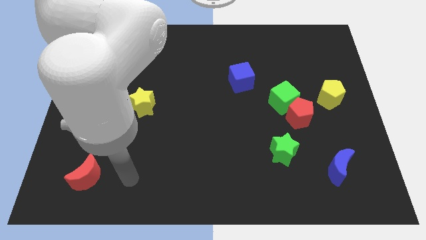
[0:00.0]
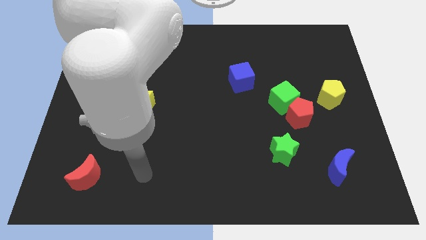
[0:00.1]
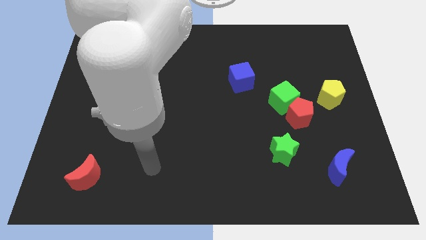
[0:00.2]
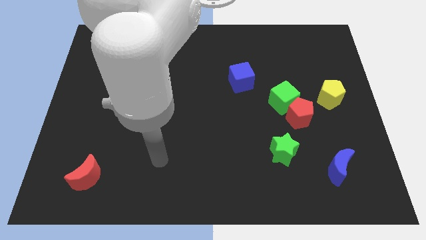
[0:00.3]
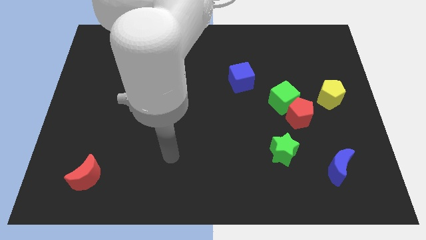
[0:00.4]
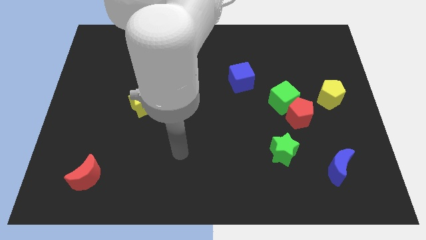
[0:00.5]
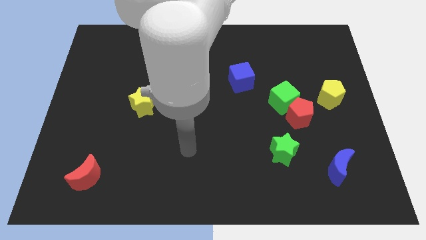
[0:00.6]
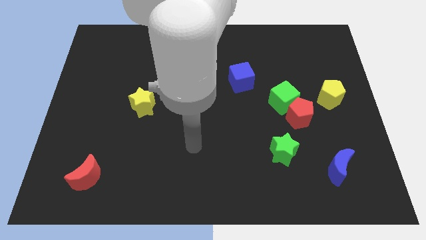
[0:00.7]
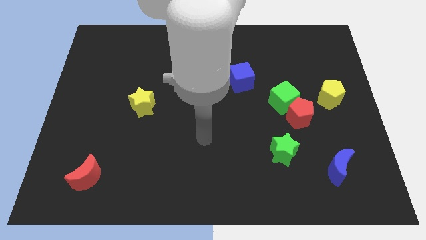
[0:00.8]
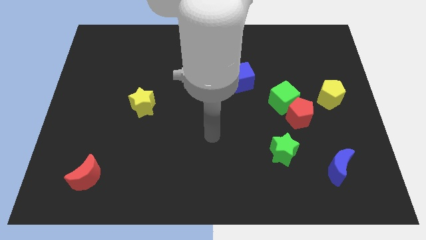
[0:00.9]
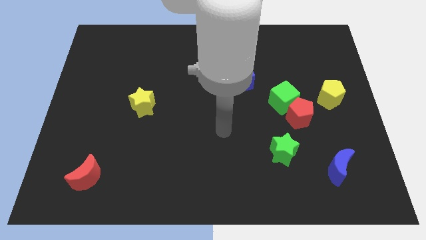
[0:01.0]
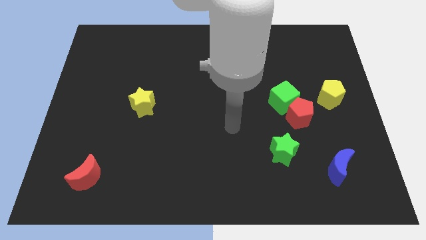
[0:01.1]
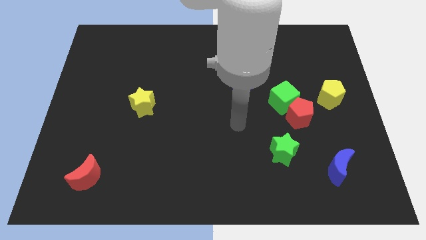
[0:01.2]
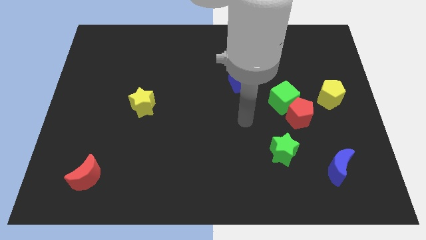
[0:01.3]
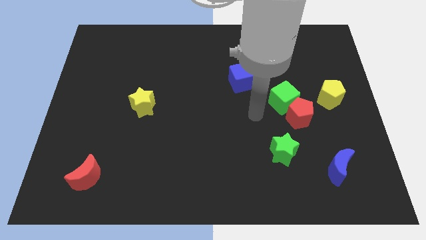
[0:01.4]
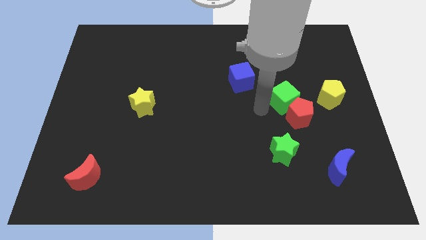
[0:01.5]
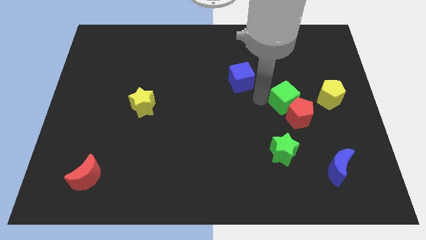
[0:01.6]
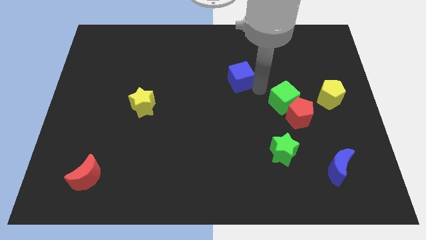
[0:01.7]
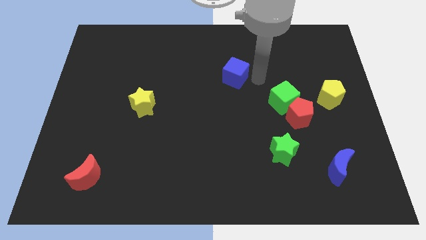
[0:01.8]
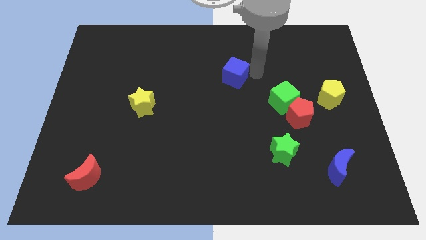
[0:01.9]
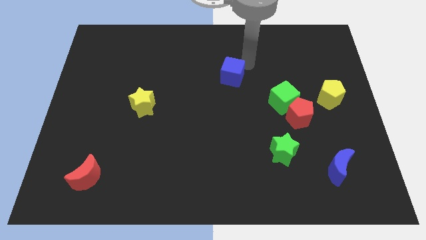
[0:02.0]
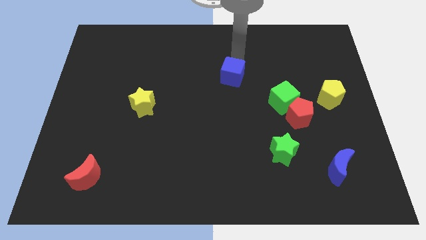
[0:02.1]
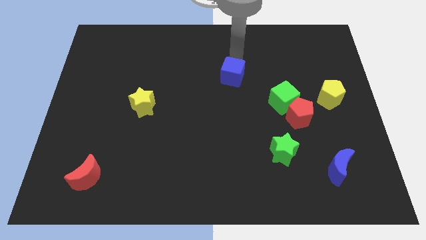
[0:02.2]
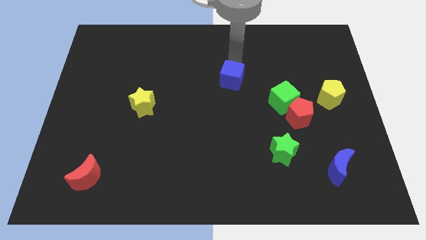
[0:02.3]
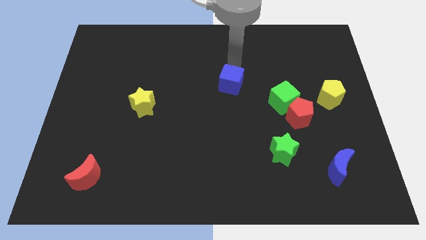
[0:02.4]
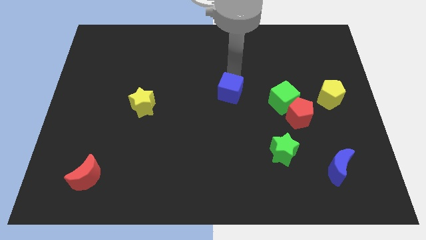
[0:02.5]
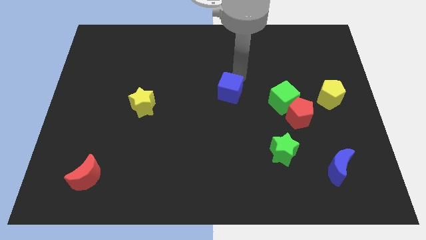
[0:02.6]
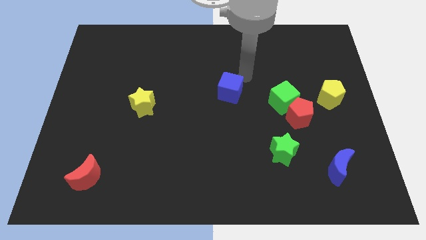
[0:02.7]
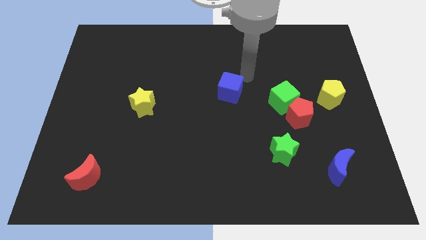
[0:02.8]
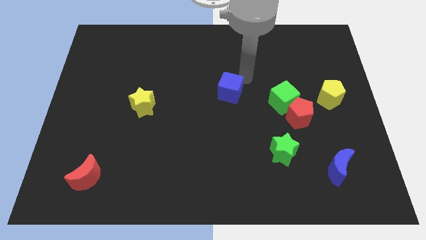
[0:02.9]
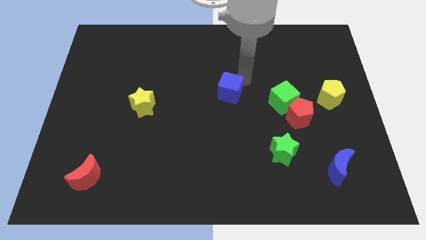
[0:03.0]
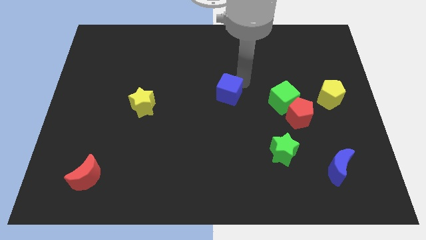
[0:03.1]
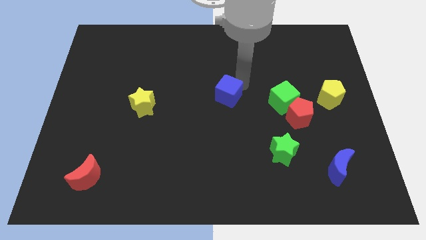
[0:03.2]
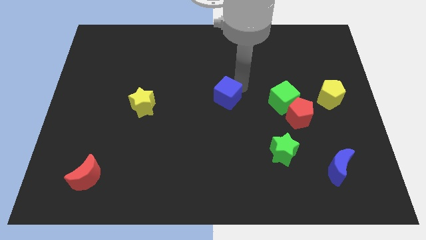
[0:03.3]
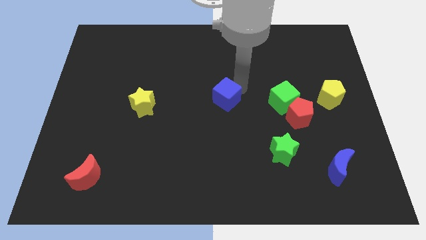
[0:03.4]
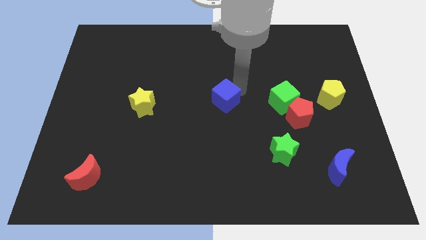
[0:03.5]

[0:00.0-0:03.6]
move the blue cube downwards and to the left diagonally a bit

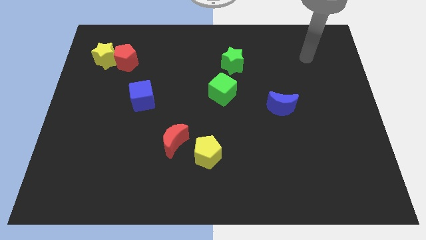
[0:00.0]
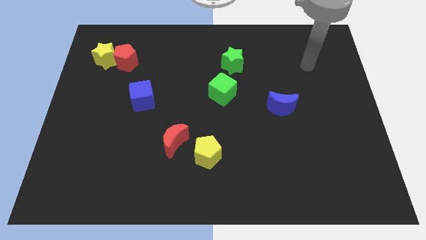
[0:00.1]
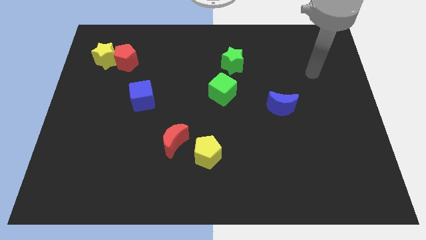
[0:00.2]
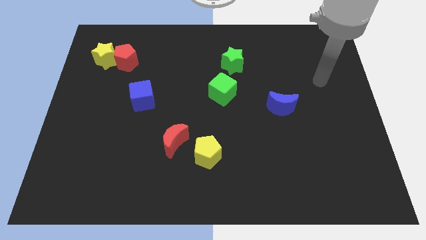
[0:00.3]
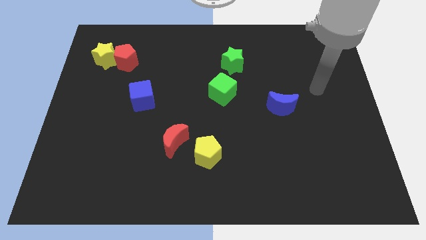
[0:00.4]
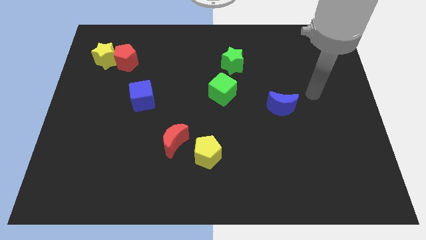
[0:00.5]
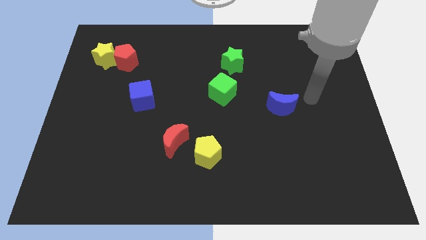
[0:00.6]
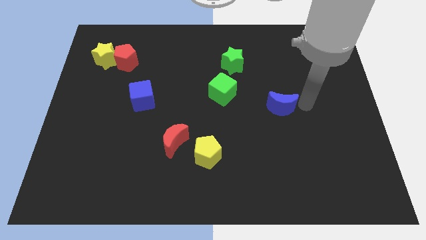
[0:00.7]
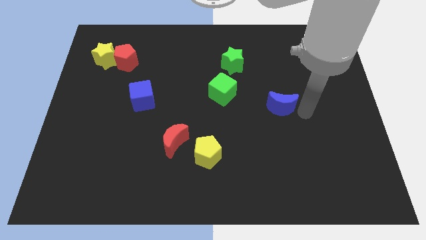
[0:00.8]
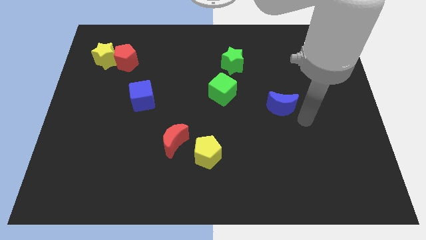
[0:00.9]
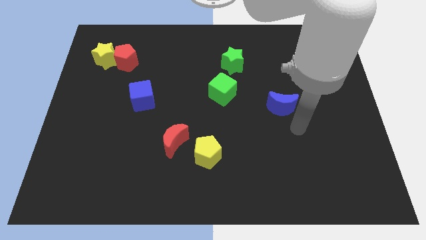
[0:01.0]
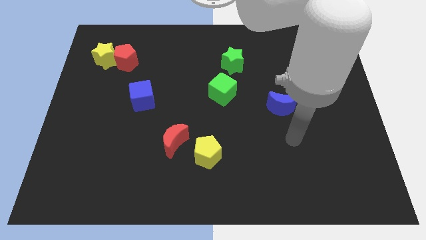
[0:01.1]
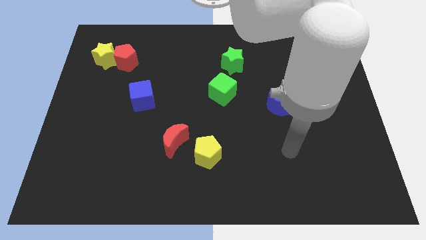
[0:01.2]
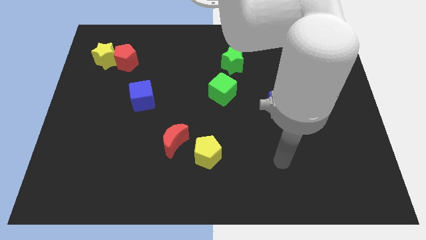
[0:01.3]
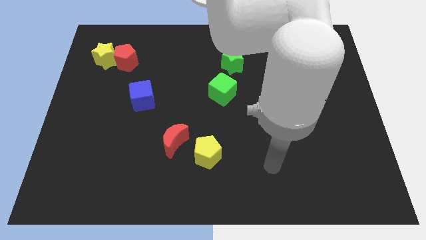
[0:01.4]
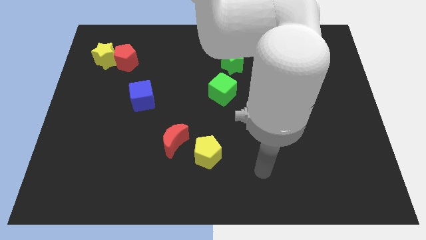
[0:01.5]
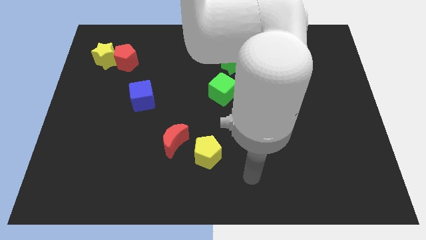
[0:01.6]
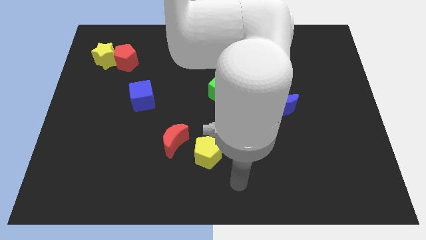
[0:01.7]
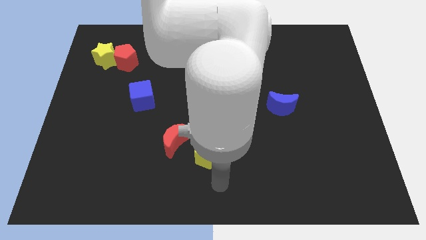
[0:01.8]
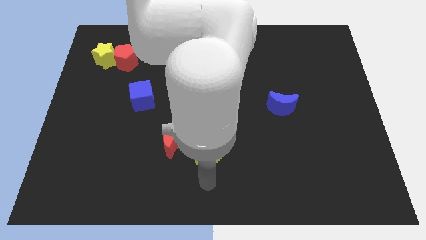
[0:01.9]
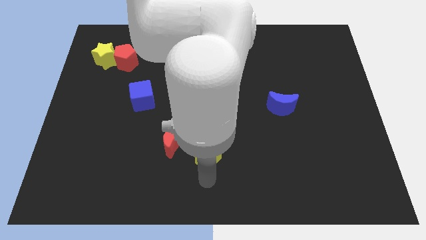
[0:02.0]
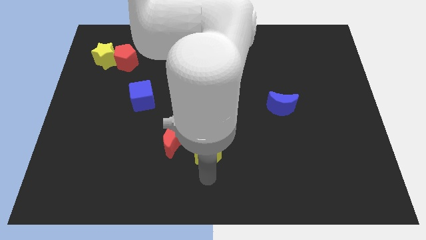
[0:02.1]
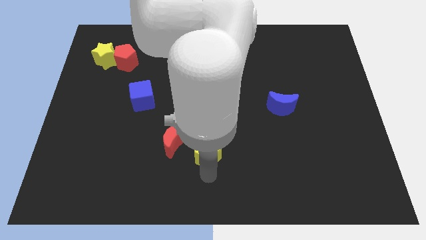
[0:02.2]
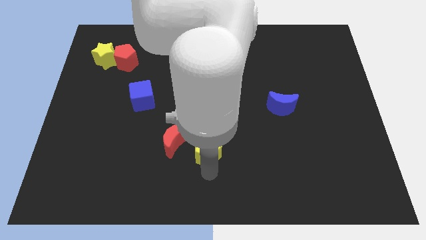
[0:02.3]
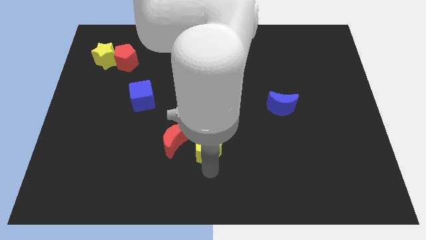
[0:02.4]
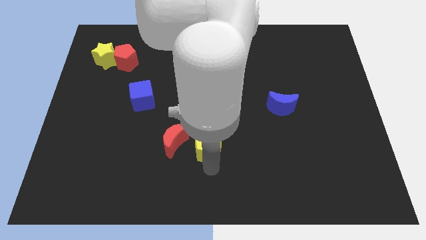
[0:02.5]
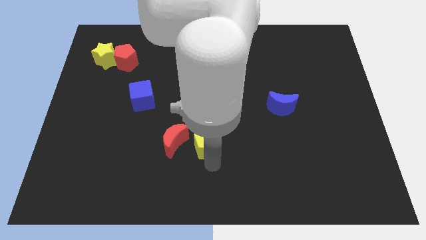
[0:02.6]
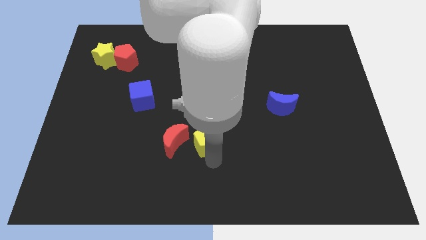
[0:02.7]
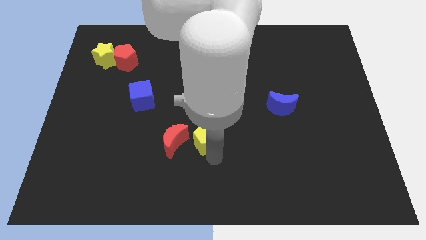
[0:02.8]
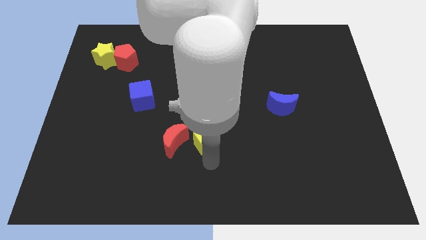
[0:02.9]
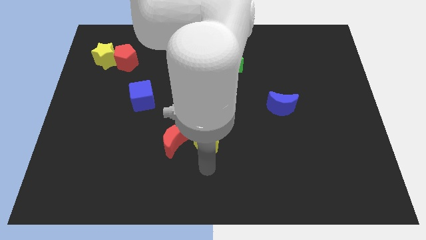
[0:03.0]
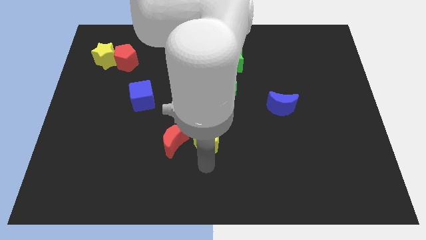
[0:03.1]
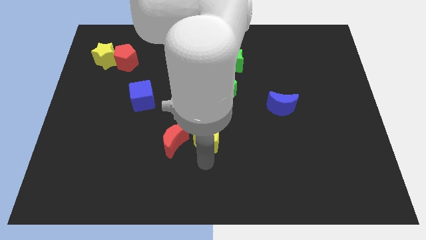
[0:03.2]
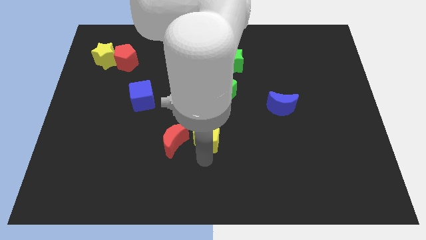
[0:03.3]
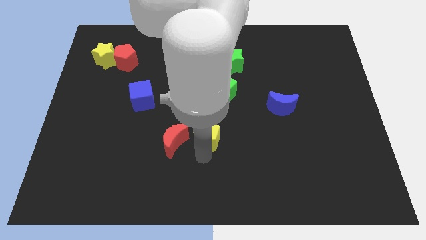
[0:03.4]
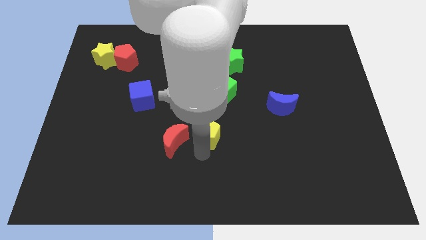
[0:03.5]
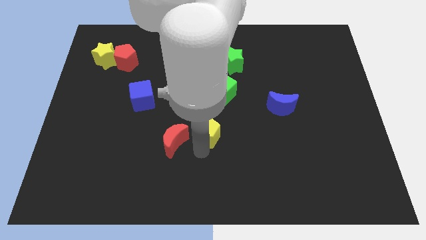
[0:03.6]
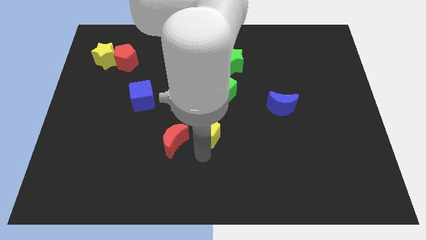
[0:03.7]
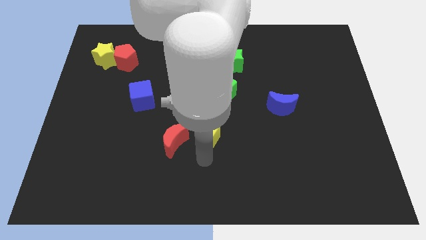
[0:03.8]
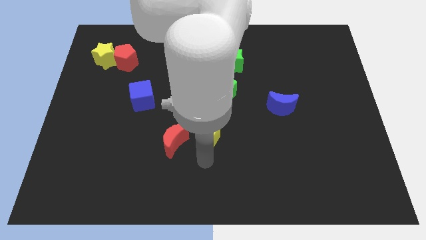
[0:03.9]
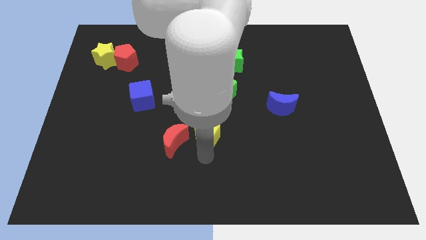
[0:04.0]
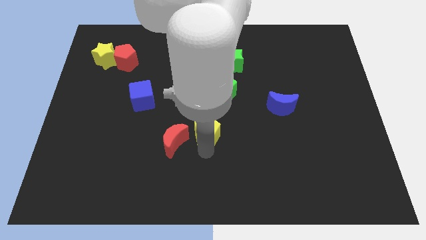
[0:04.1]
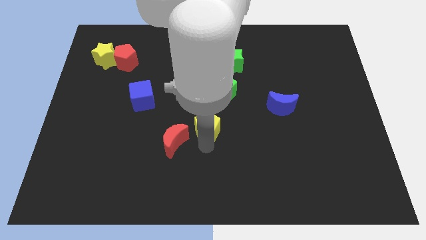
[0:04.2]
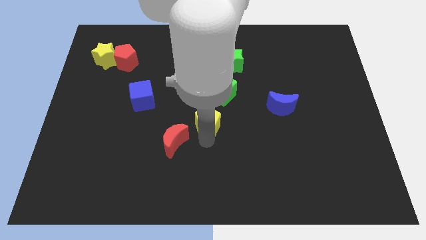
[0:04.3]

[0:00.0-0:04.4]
push the yellow pentagon slightly upwards
